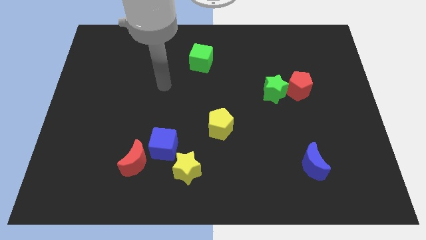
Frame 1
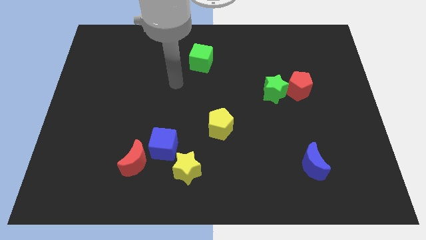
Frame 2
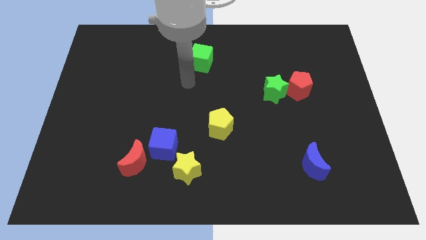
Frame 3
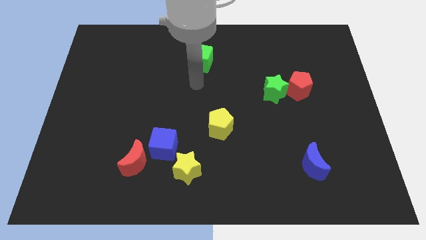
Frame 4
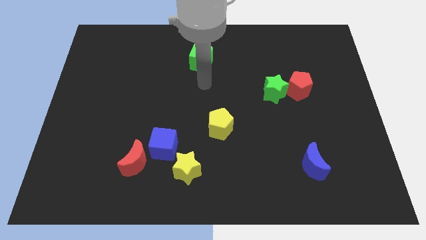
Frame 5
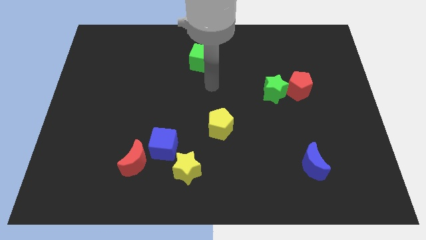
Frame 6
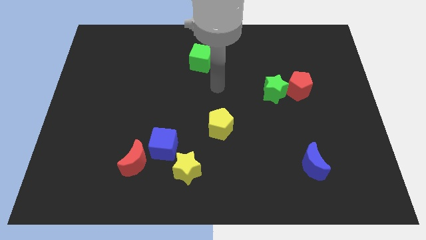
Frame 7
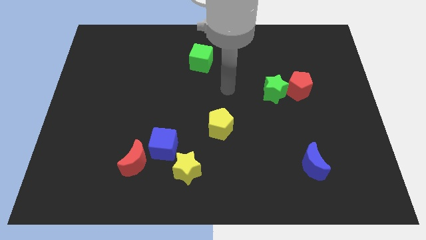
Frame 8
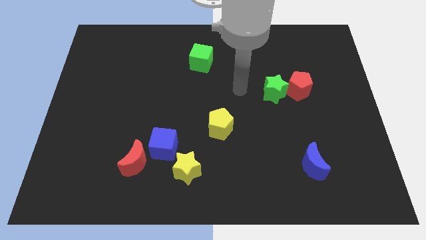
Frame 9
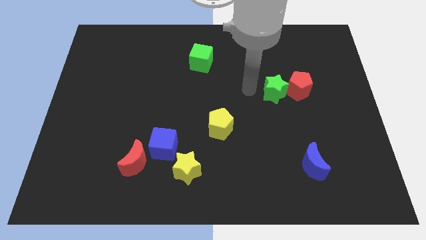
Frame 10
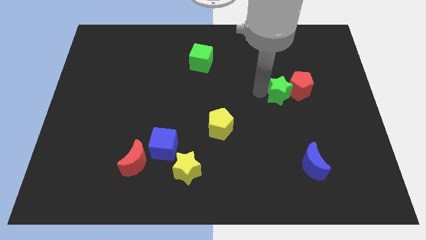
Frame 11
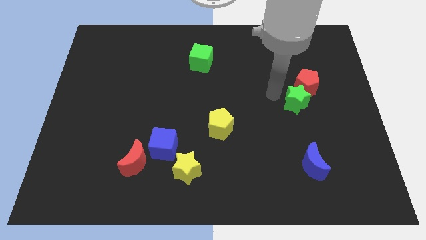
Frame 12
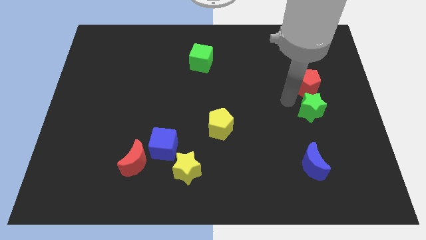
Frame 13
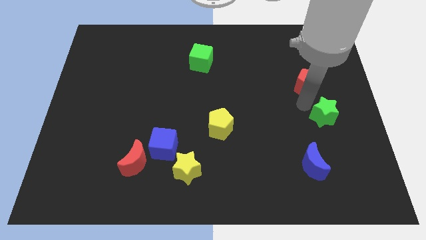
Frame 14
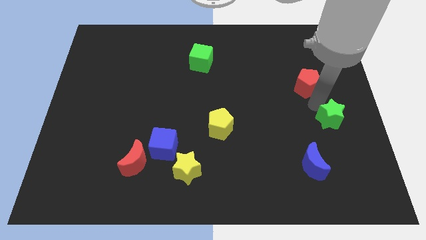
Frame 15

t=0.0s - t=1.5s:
move the red pentagon away from the green star

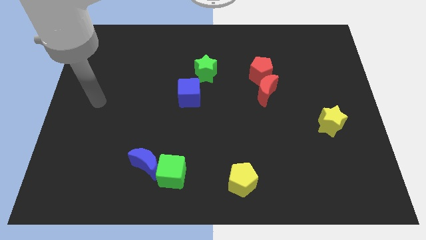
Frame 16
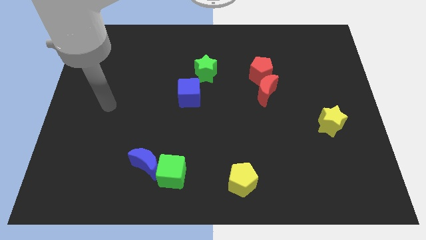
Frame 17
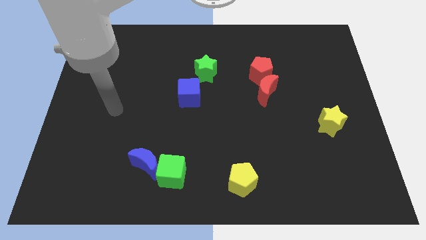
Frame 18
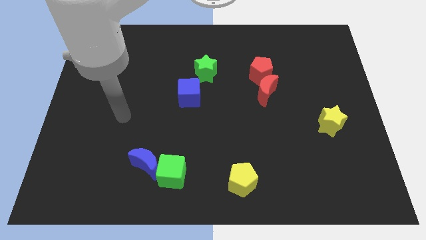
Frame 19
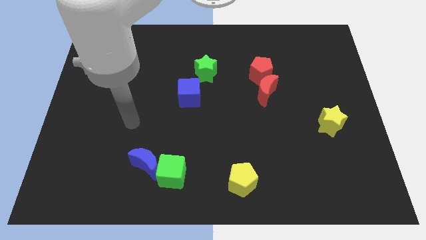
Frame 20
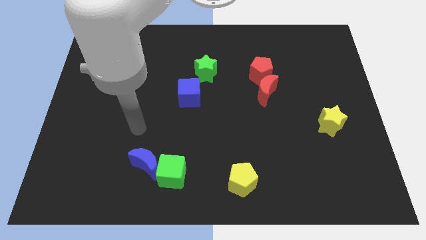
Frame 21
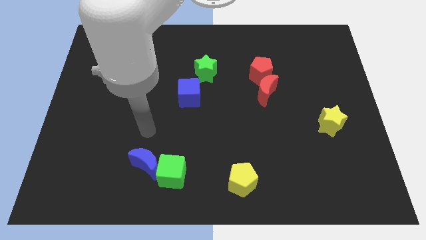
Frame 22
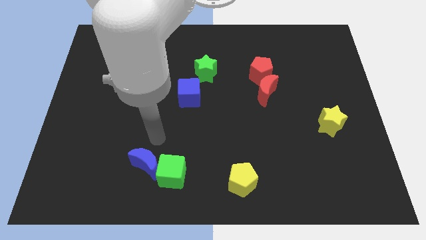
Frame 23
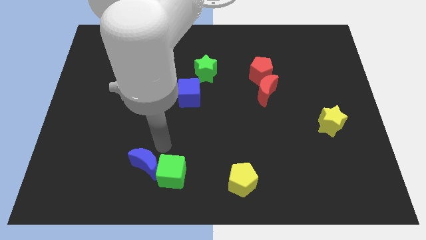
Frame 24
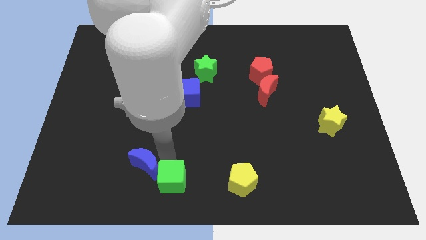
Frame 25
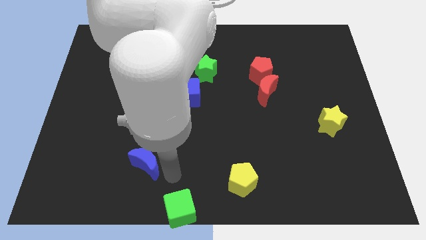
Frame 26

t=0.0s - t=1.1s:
pull the blue moon apart from the green cube

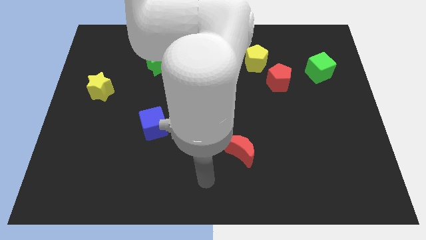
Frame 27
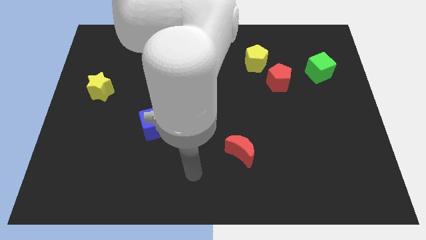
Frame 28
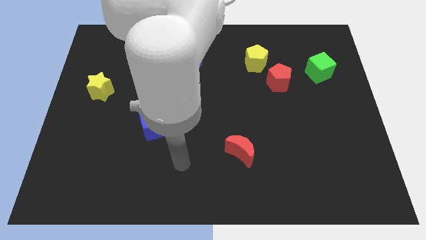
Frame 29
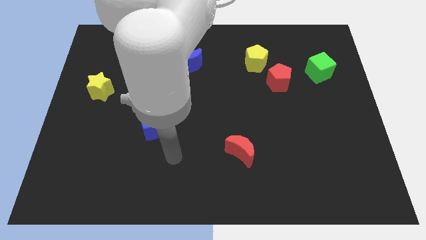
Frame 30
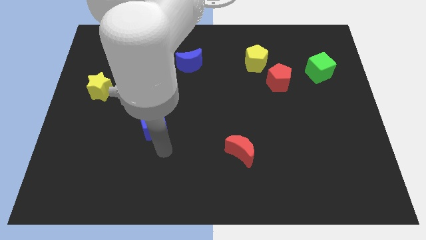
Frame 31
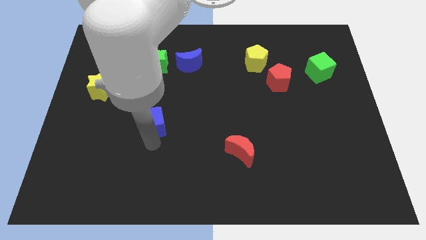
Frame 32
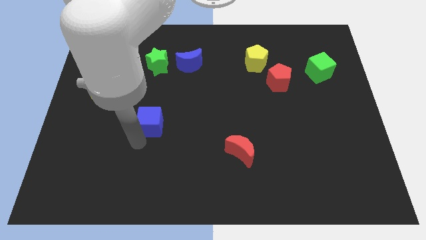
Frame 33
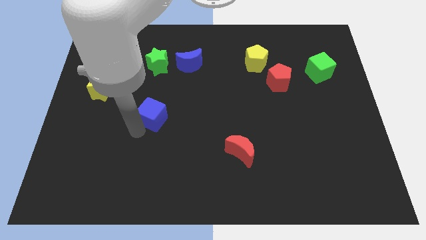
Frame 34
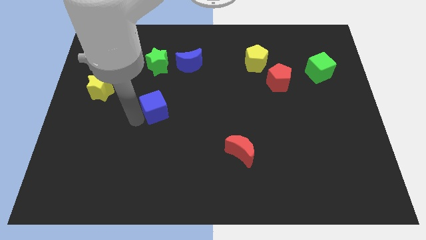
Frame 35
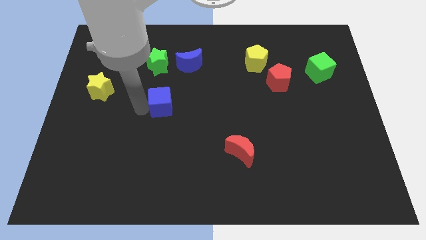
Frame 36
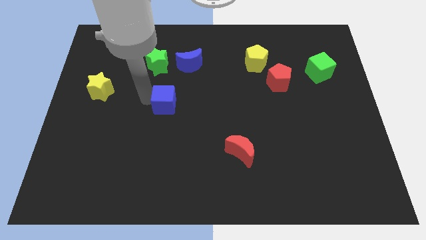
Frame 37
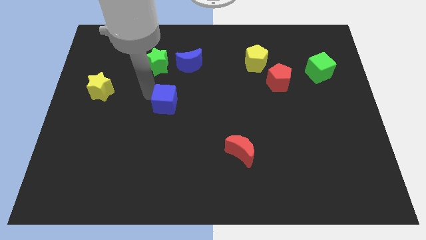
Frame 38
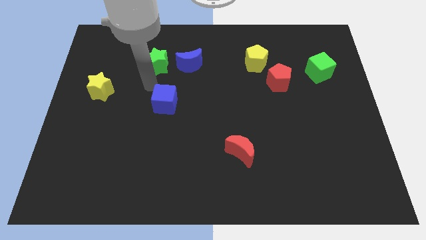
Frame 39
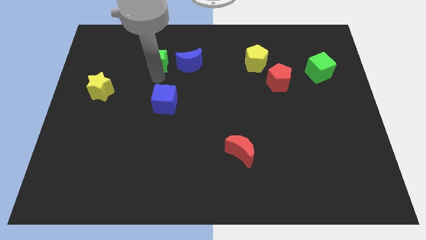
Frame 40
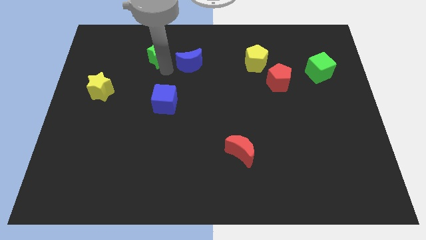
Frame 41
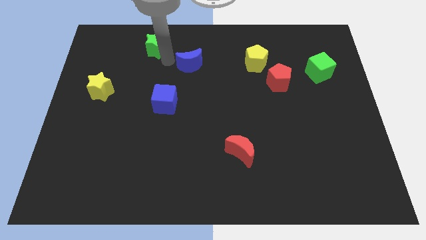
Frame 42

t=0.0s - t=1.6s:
move the blue moon away from the green star

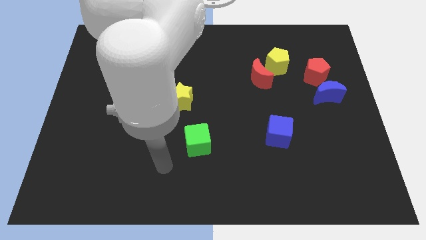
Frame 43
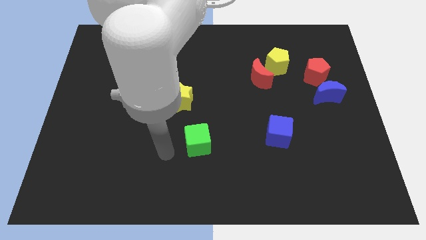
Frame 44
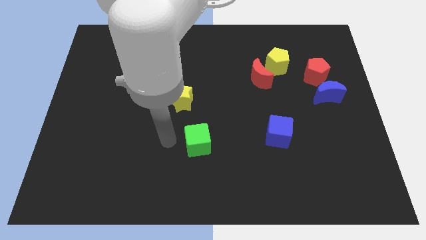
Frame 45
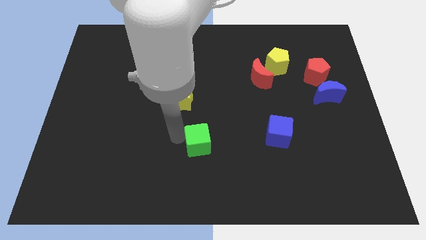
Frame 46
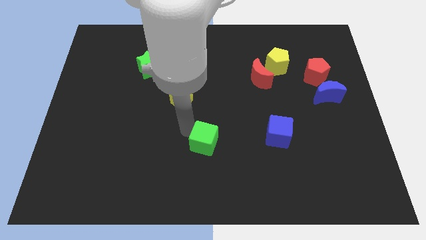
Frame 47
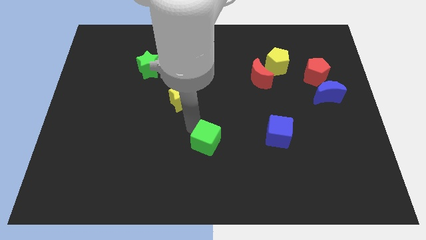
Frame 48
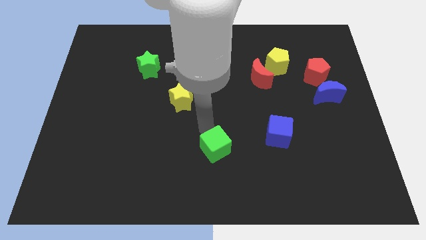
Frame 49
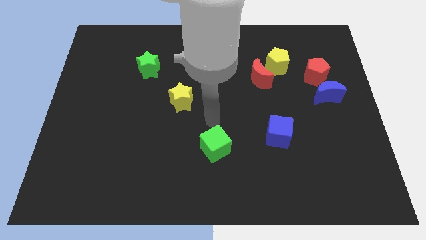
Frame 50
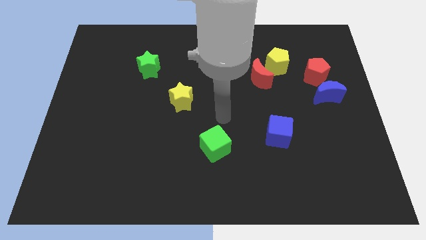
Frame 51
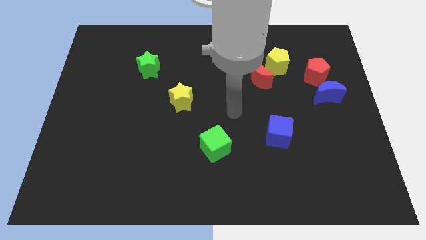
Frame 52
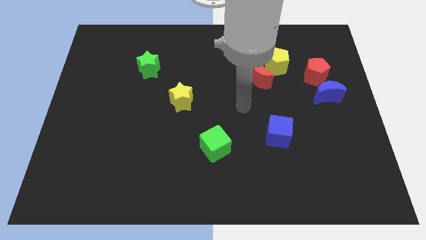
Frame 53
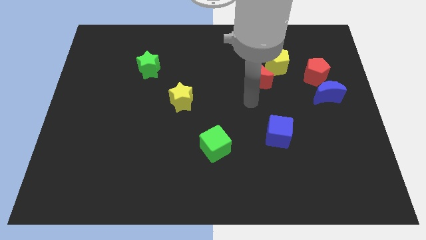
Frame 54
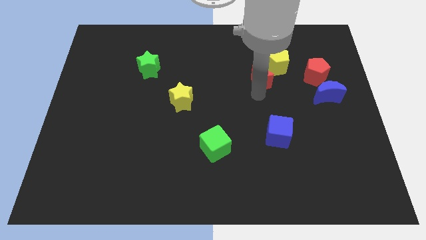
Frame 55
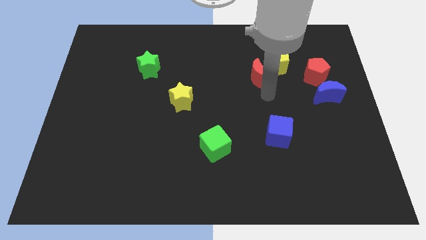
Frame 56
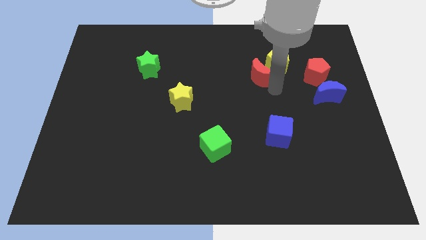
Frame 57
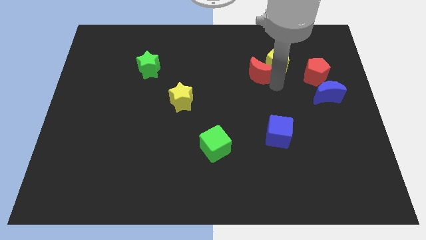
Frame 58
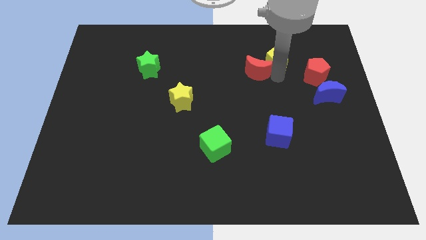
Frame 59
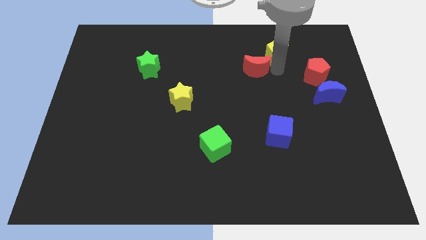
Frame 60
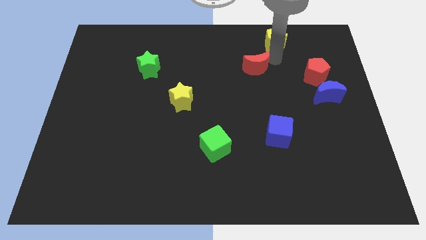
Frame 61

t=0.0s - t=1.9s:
move the red moon away from the yellow pentagon

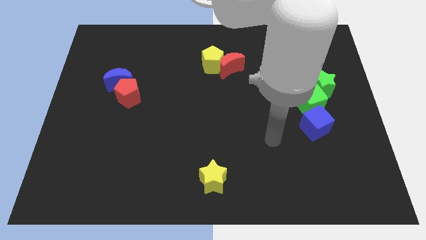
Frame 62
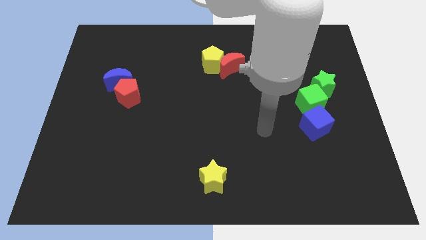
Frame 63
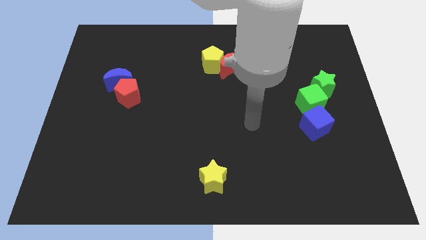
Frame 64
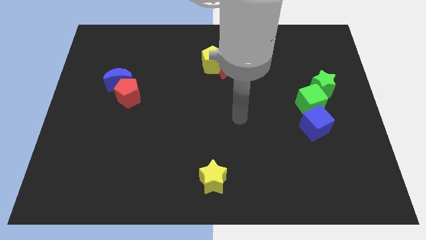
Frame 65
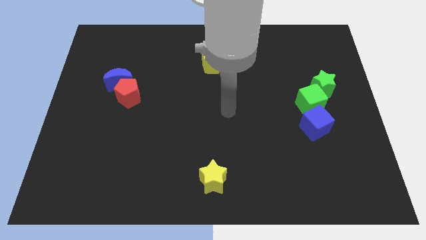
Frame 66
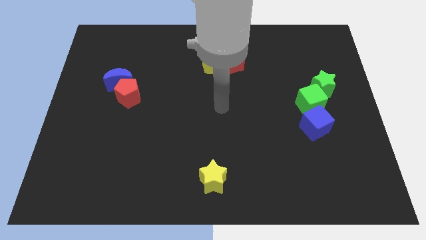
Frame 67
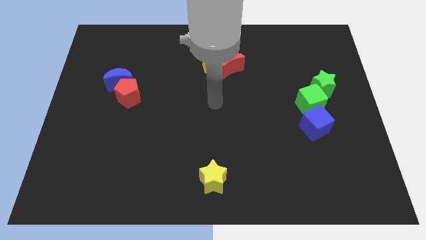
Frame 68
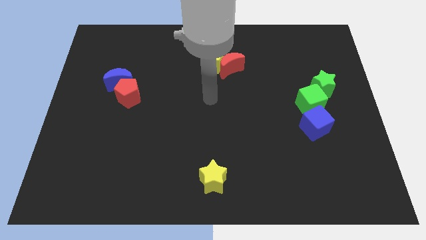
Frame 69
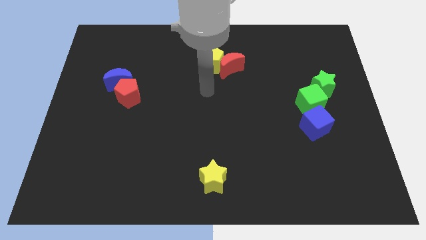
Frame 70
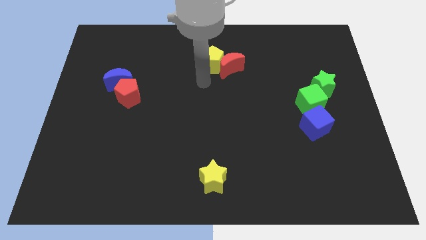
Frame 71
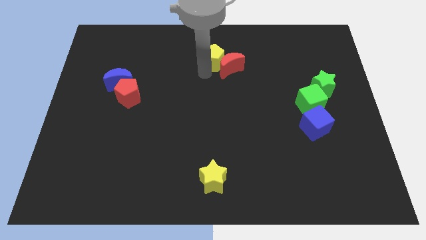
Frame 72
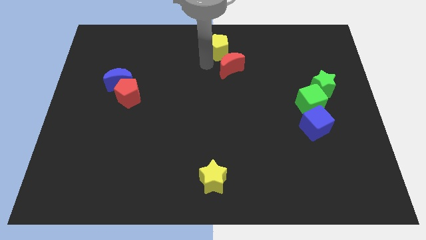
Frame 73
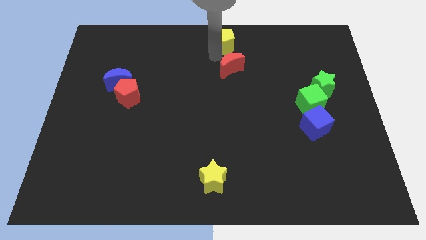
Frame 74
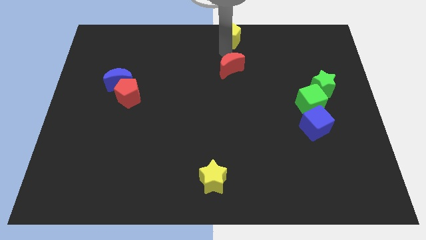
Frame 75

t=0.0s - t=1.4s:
pull the red moon apart from the yellow pentagon

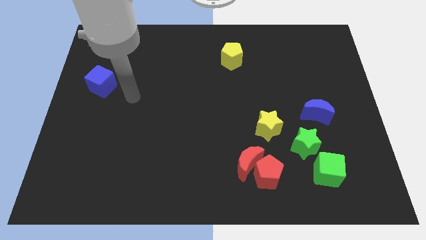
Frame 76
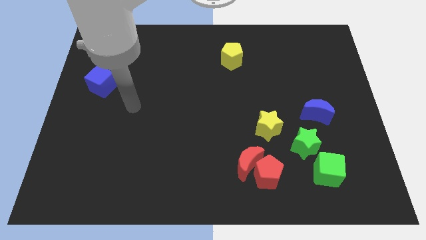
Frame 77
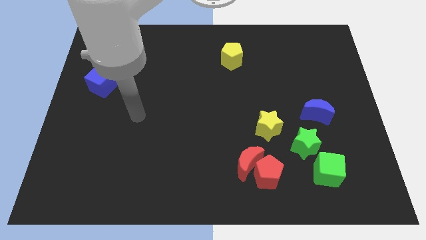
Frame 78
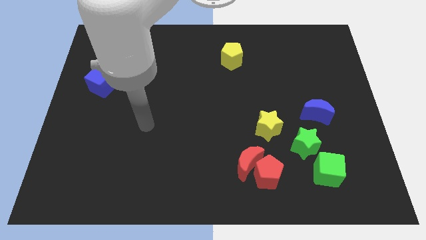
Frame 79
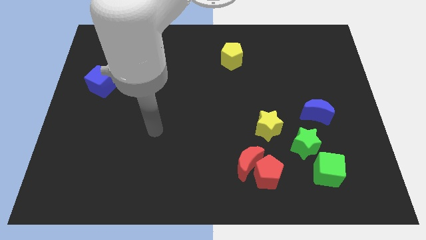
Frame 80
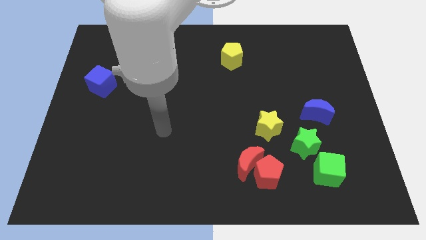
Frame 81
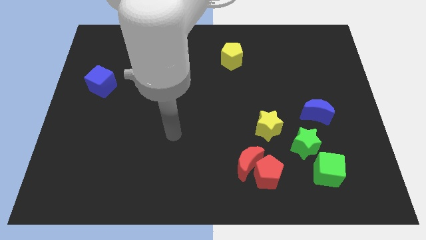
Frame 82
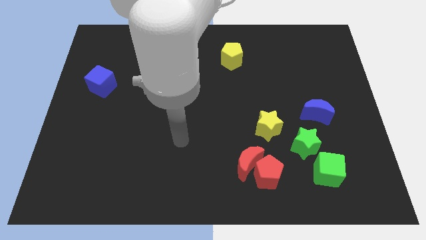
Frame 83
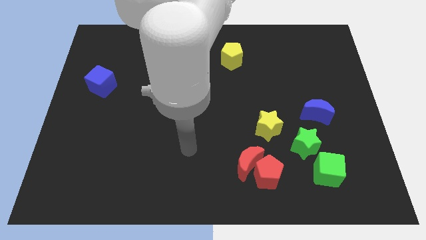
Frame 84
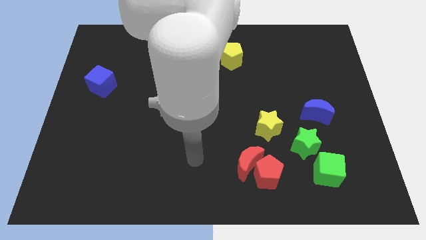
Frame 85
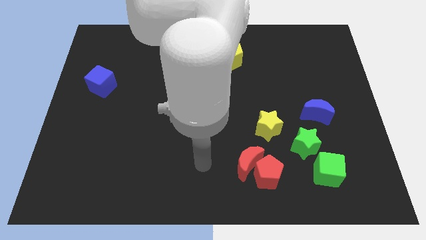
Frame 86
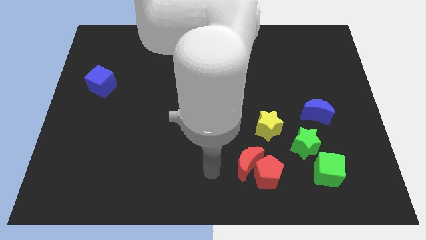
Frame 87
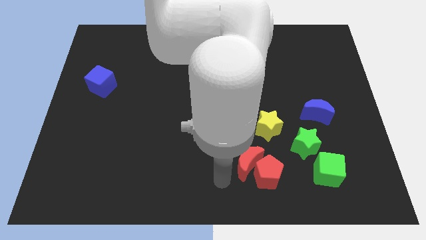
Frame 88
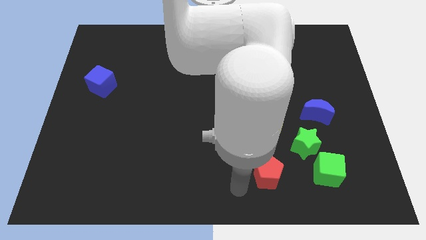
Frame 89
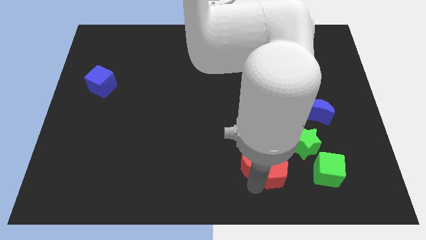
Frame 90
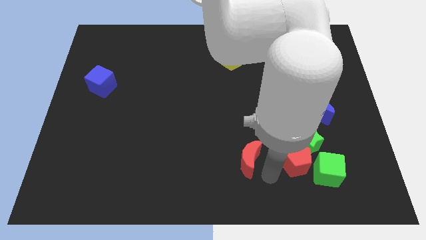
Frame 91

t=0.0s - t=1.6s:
separate the red moon from the red pentagon
